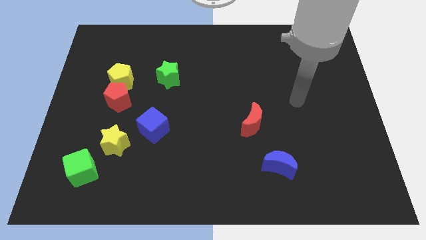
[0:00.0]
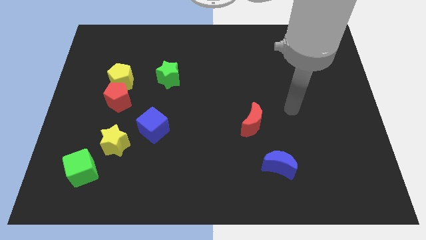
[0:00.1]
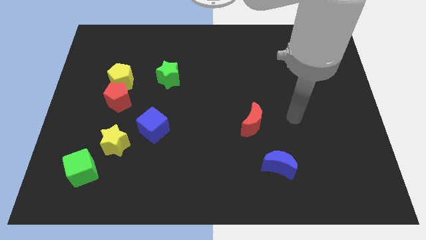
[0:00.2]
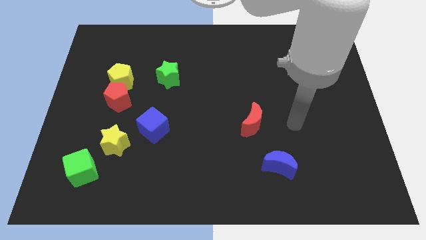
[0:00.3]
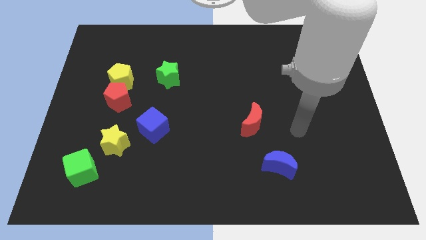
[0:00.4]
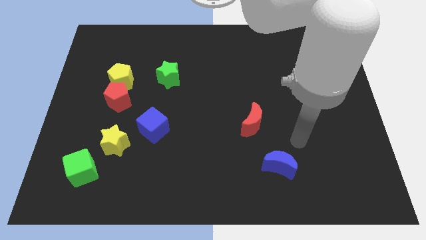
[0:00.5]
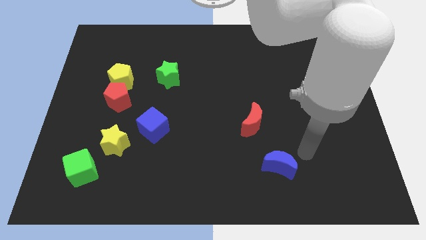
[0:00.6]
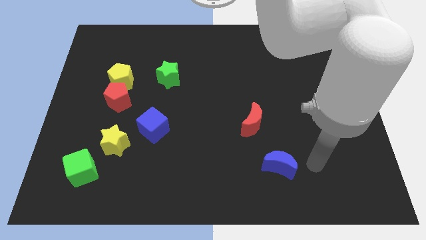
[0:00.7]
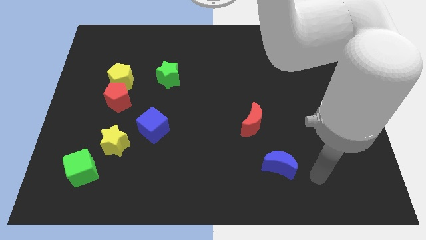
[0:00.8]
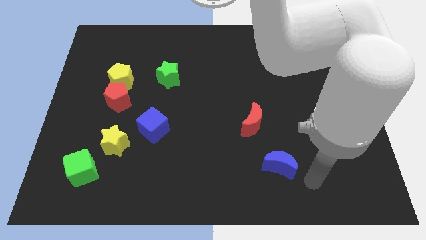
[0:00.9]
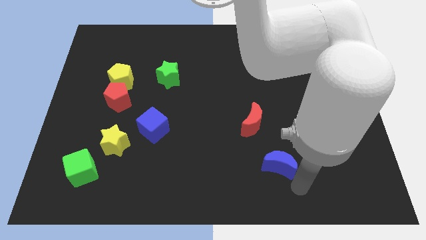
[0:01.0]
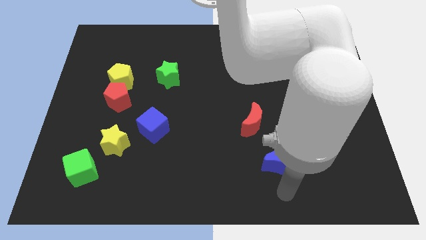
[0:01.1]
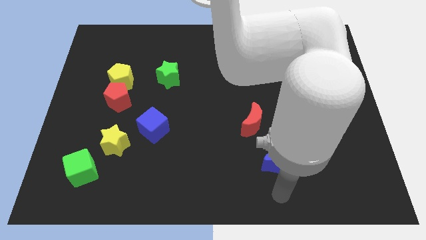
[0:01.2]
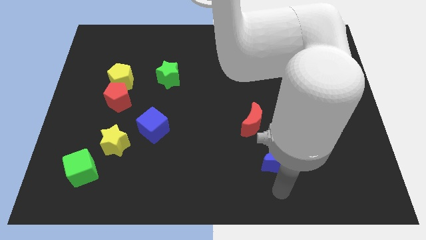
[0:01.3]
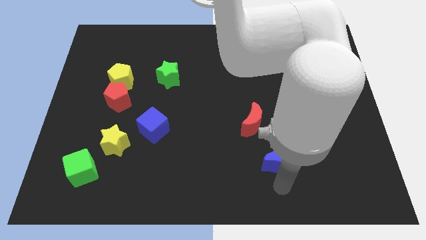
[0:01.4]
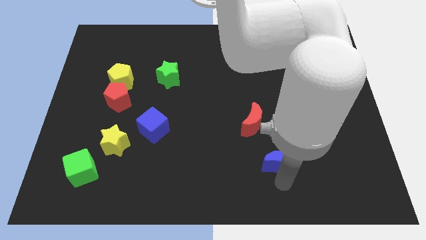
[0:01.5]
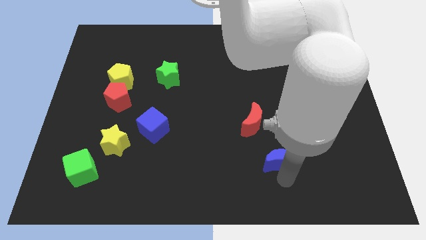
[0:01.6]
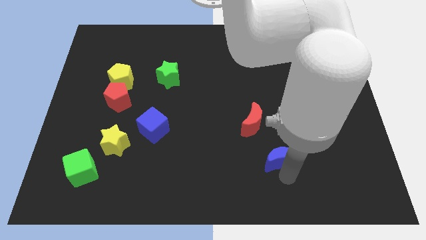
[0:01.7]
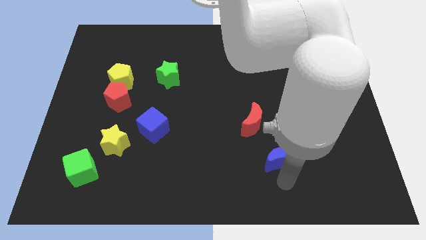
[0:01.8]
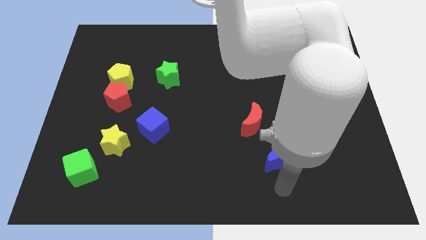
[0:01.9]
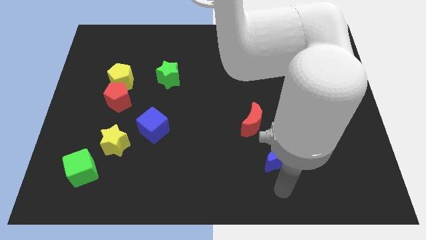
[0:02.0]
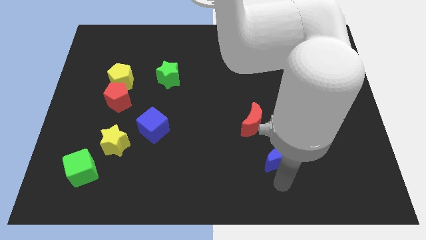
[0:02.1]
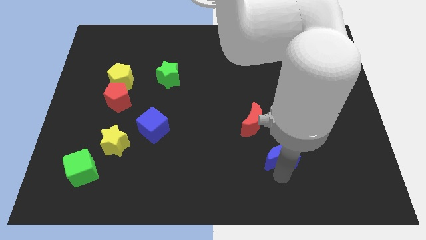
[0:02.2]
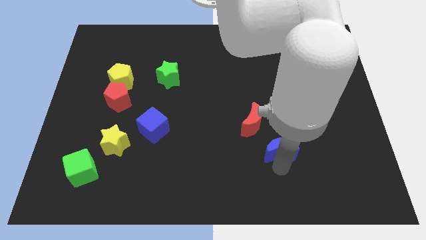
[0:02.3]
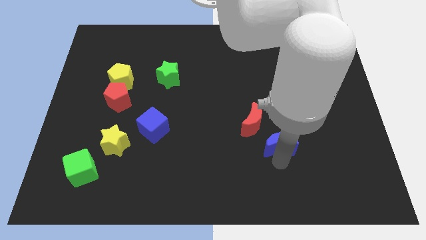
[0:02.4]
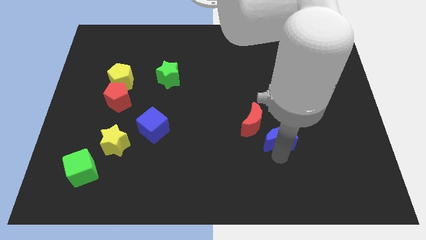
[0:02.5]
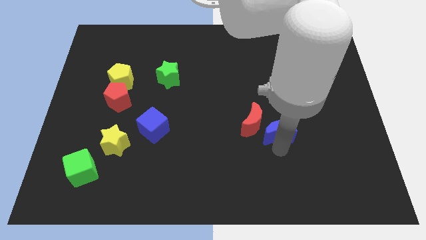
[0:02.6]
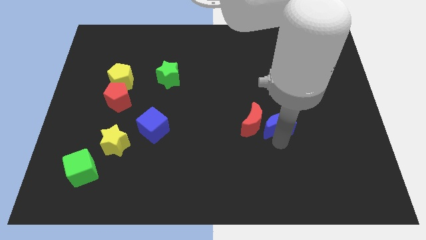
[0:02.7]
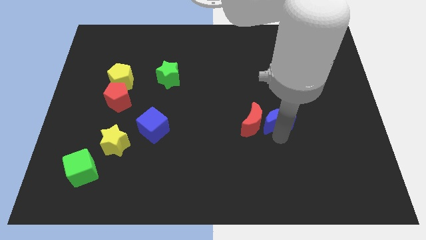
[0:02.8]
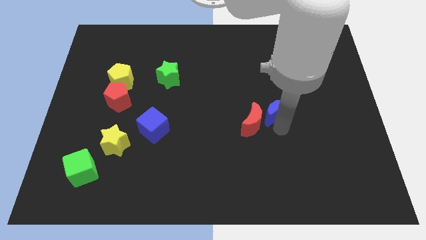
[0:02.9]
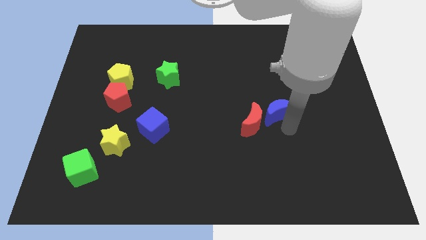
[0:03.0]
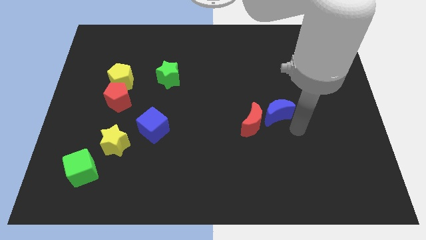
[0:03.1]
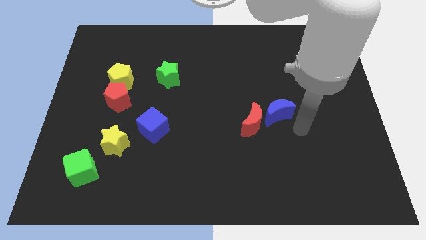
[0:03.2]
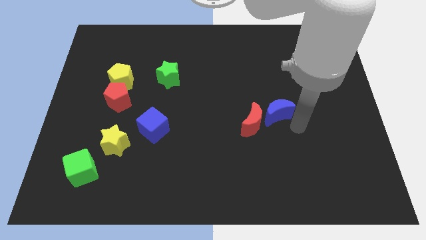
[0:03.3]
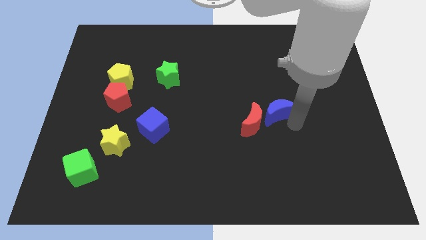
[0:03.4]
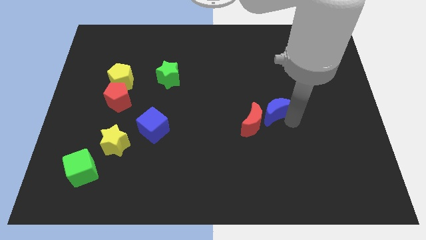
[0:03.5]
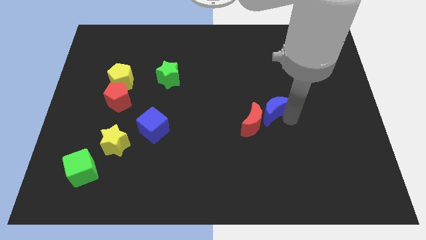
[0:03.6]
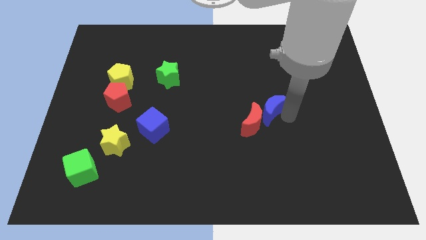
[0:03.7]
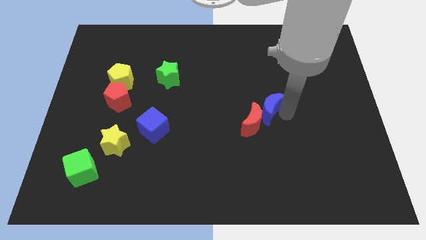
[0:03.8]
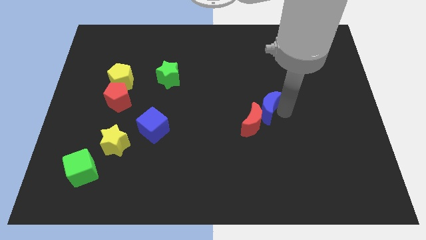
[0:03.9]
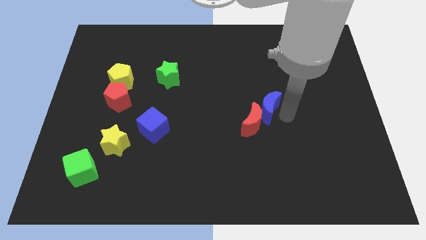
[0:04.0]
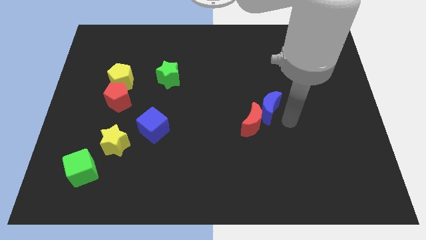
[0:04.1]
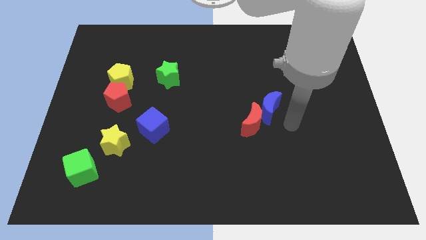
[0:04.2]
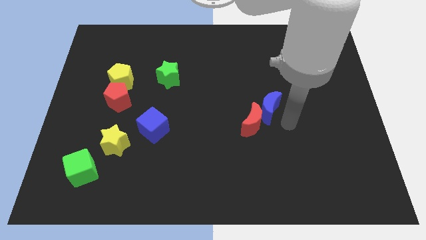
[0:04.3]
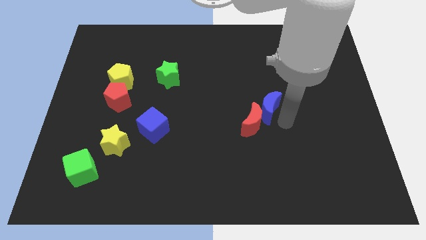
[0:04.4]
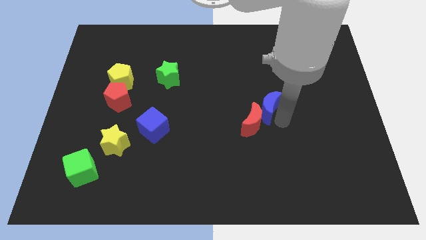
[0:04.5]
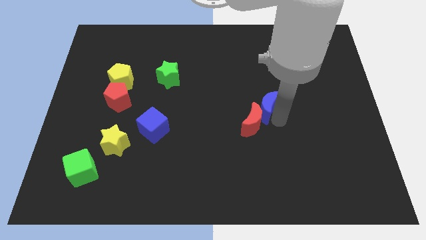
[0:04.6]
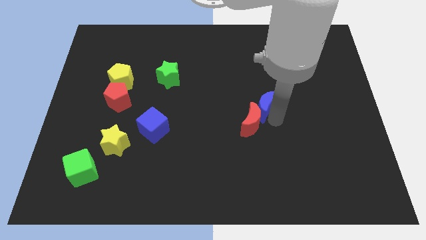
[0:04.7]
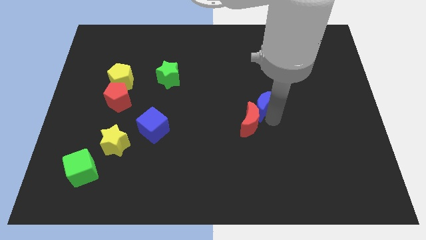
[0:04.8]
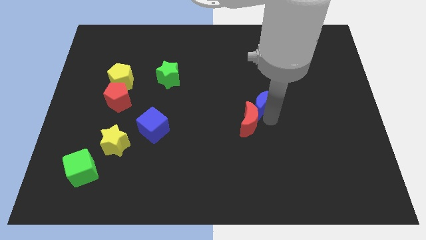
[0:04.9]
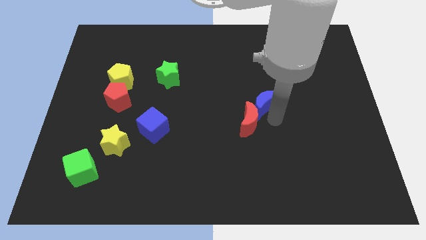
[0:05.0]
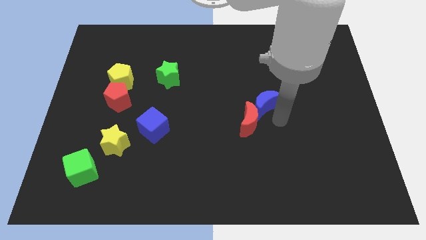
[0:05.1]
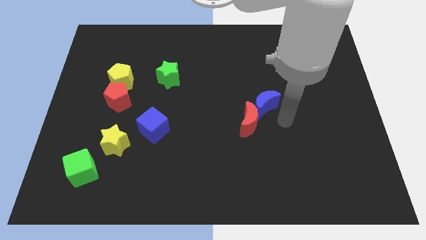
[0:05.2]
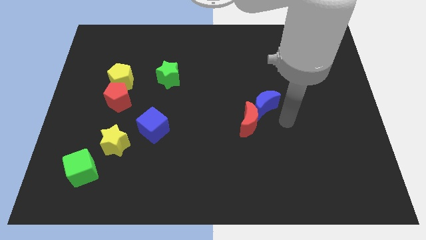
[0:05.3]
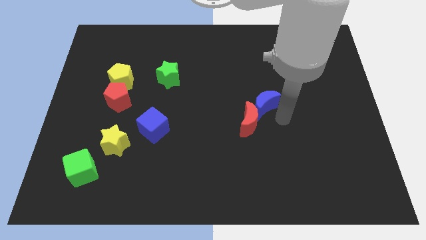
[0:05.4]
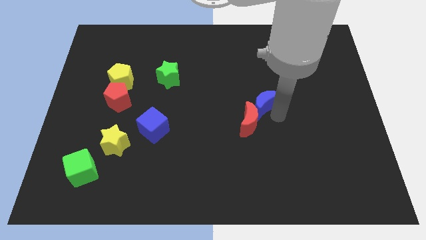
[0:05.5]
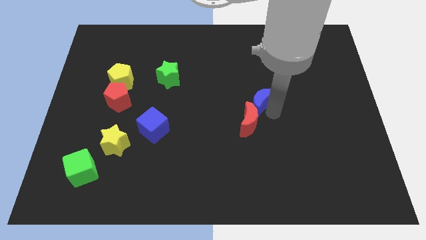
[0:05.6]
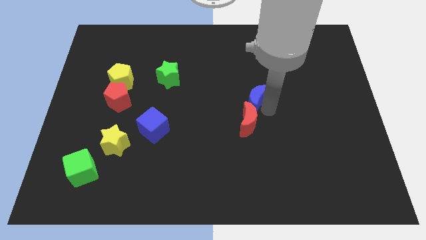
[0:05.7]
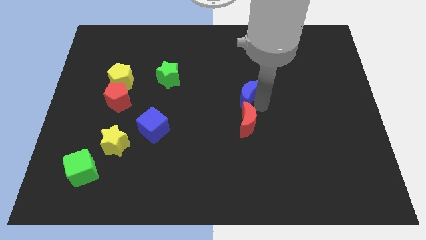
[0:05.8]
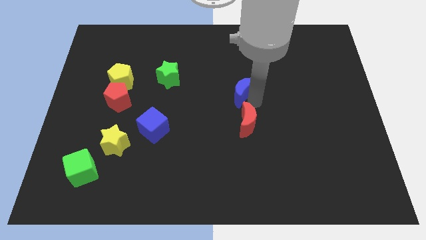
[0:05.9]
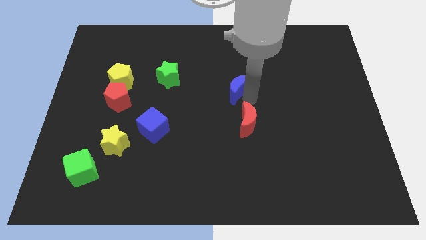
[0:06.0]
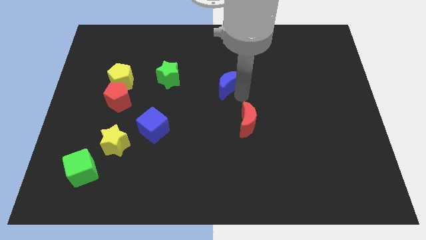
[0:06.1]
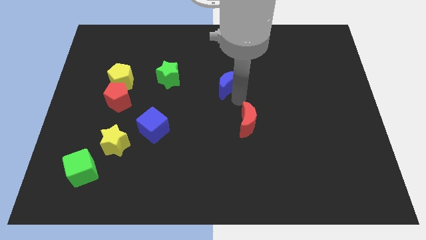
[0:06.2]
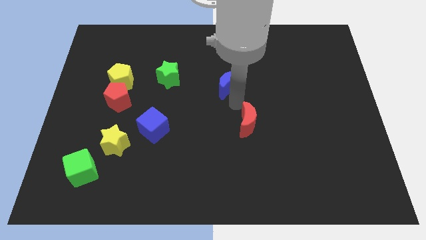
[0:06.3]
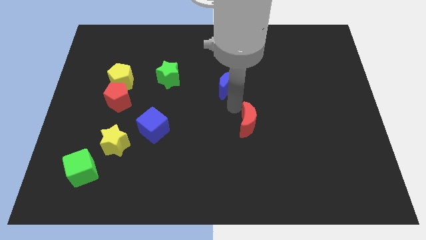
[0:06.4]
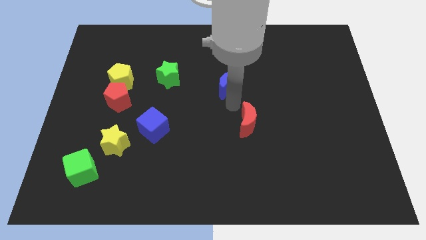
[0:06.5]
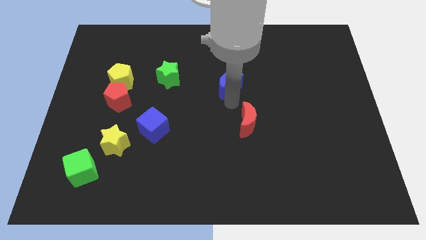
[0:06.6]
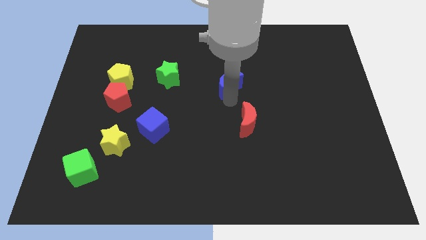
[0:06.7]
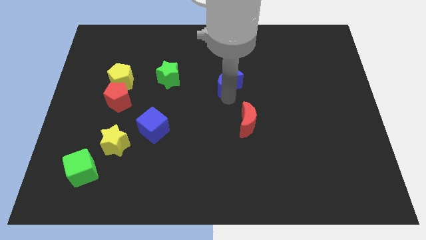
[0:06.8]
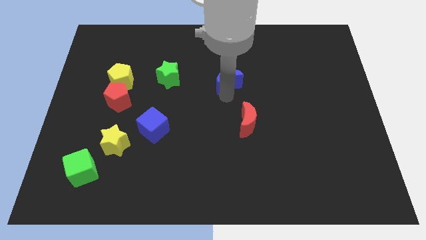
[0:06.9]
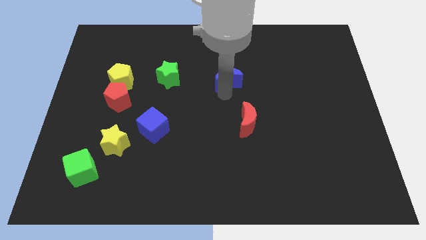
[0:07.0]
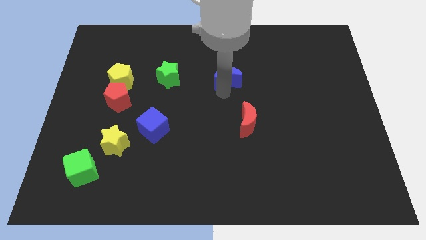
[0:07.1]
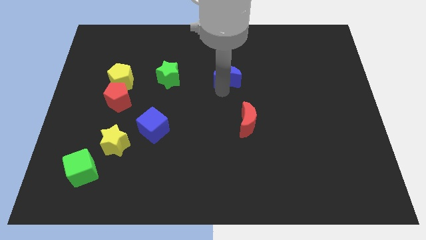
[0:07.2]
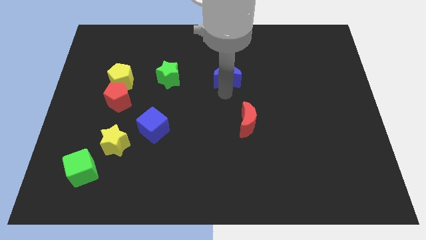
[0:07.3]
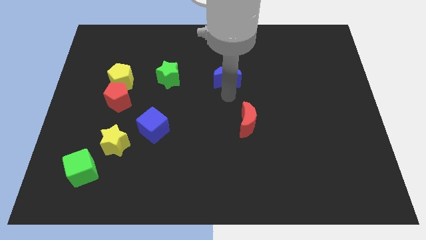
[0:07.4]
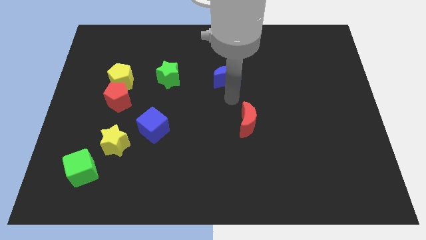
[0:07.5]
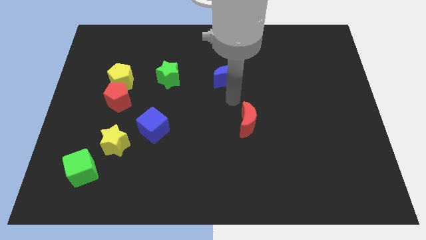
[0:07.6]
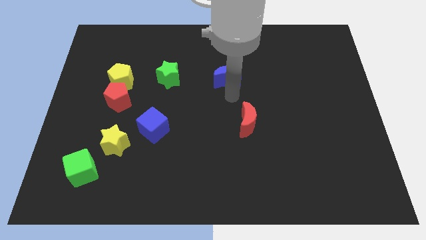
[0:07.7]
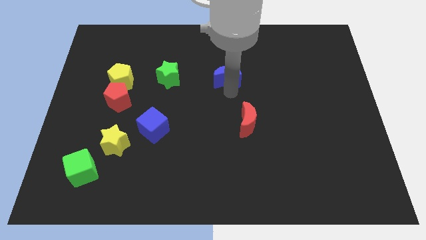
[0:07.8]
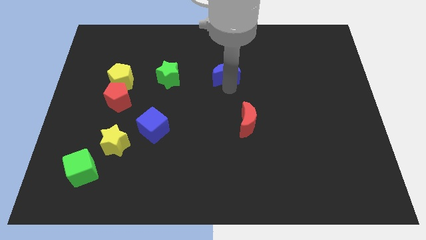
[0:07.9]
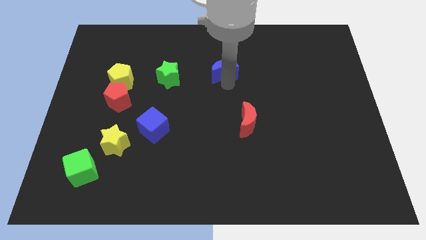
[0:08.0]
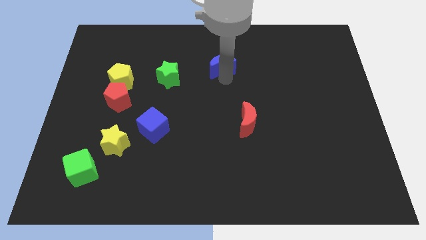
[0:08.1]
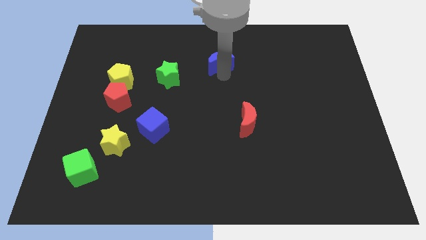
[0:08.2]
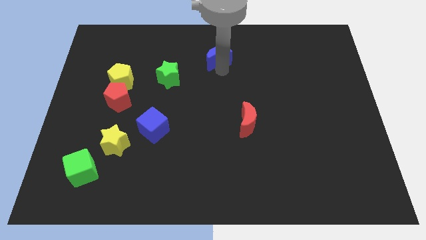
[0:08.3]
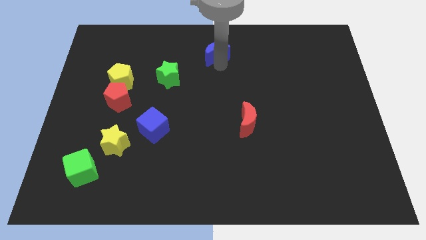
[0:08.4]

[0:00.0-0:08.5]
move the blue moon to the towards your base
